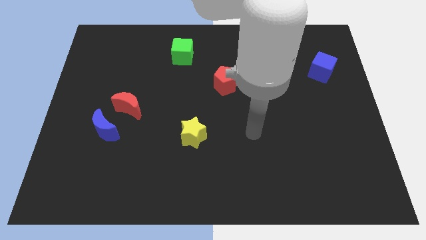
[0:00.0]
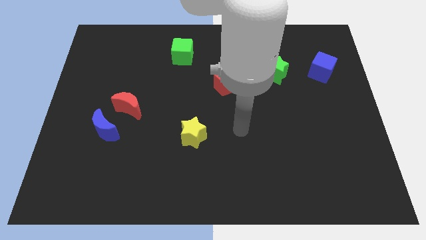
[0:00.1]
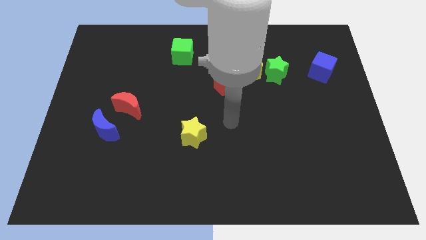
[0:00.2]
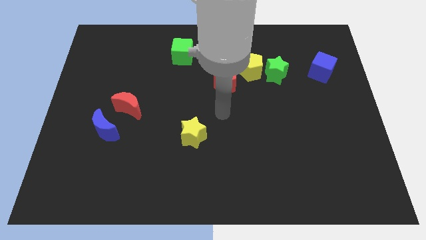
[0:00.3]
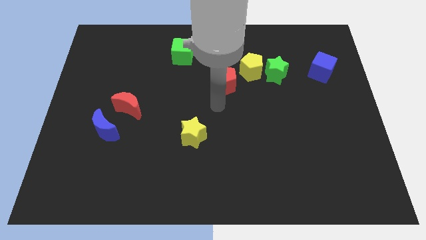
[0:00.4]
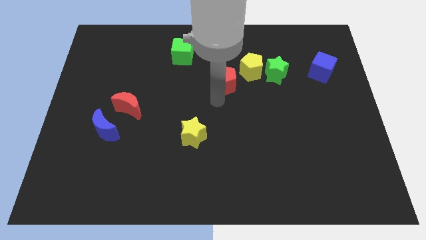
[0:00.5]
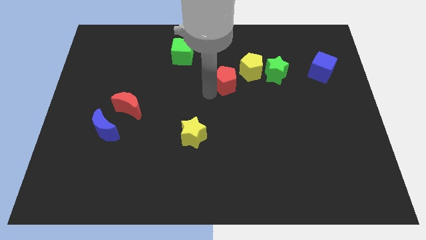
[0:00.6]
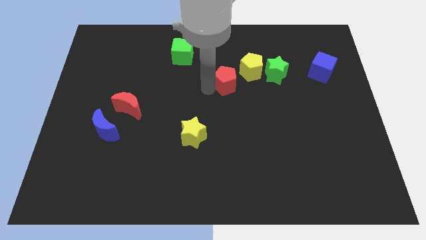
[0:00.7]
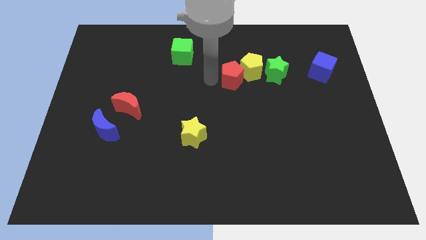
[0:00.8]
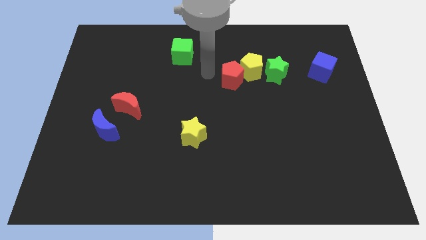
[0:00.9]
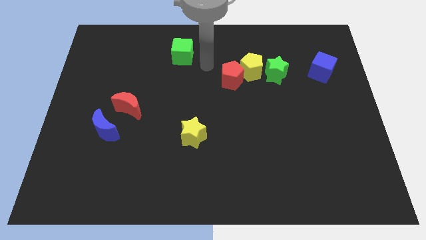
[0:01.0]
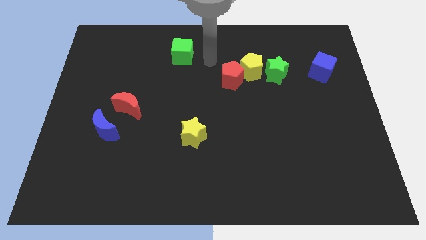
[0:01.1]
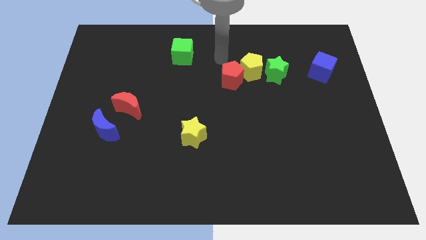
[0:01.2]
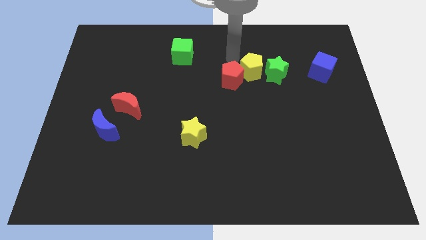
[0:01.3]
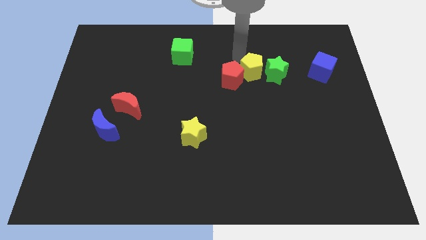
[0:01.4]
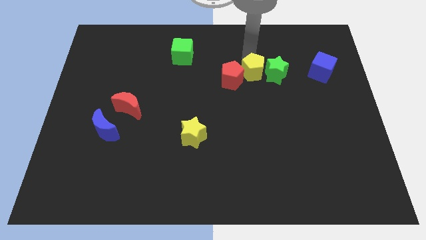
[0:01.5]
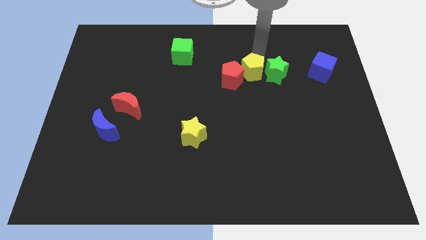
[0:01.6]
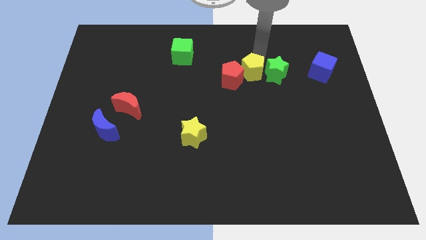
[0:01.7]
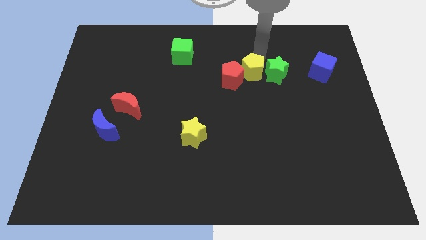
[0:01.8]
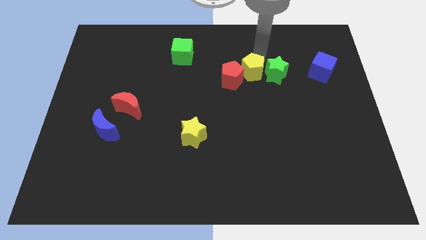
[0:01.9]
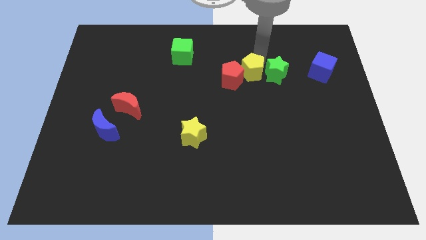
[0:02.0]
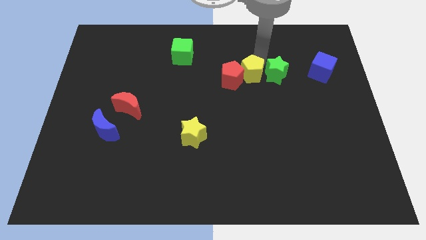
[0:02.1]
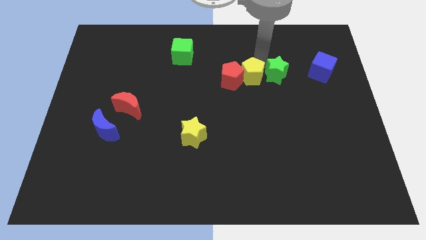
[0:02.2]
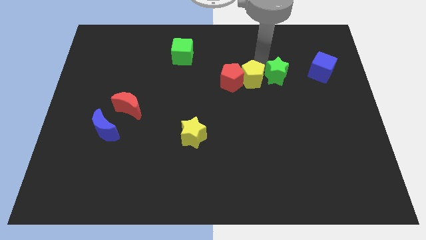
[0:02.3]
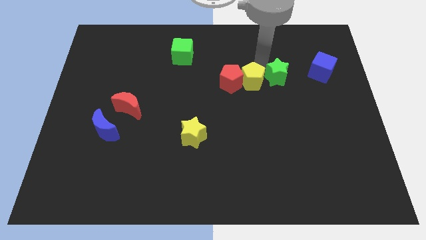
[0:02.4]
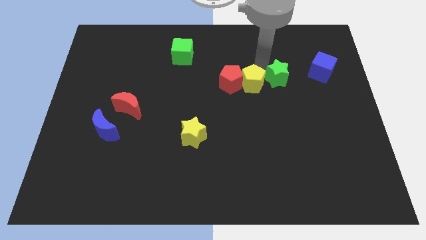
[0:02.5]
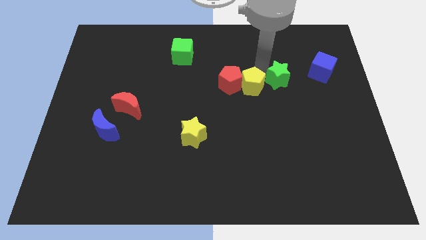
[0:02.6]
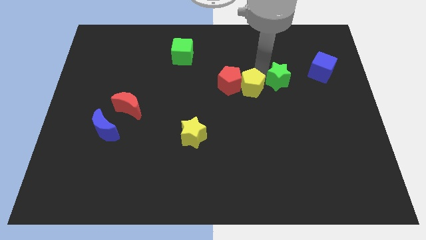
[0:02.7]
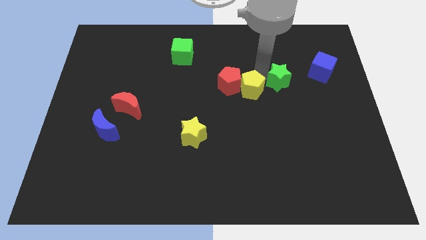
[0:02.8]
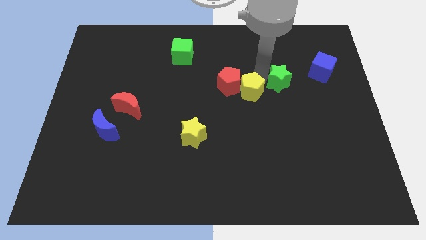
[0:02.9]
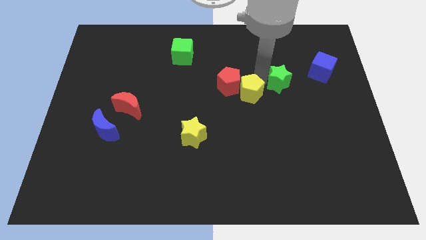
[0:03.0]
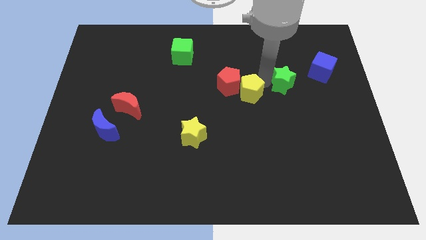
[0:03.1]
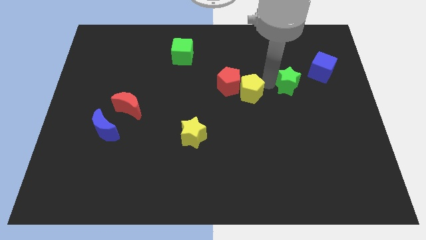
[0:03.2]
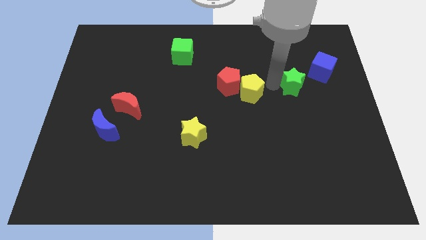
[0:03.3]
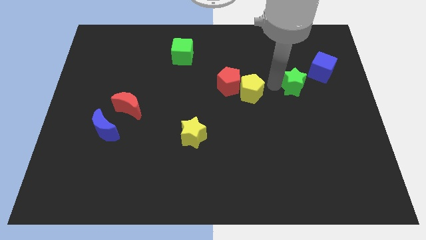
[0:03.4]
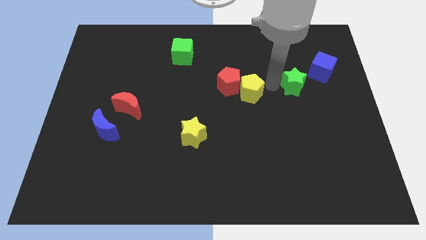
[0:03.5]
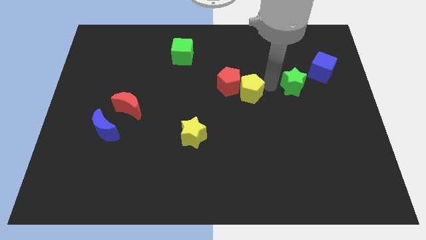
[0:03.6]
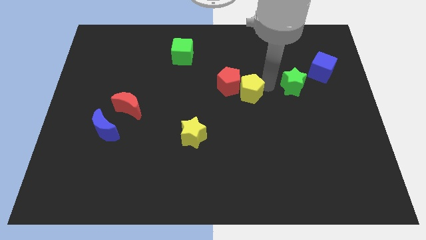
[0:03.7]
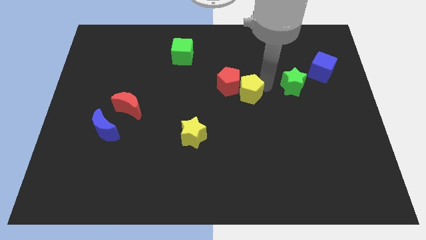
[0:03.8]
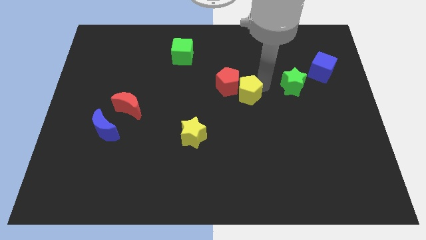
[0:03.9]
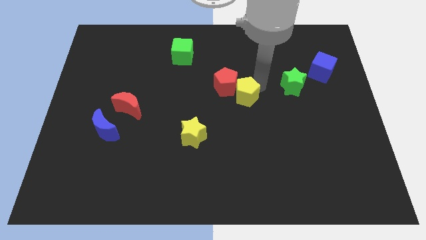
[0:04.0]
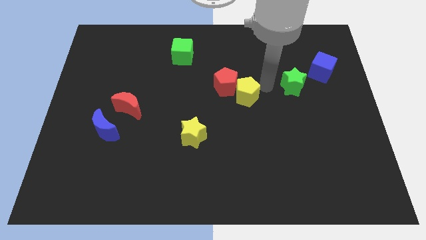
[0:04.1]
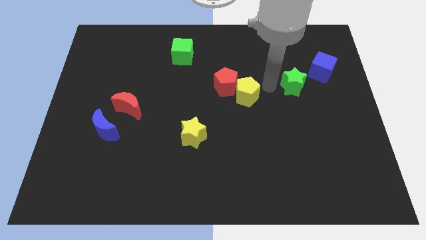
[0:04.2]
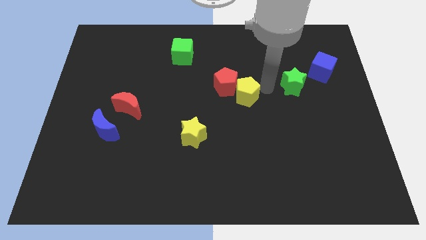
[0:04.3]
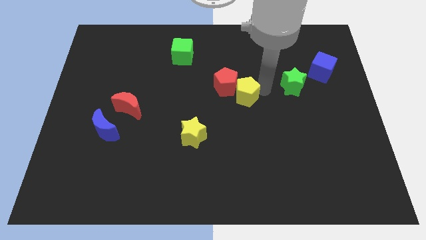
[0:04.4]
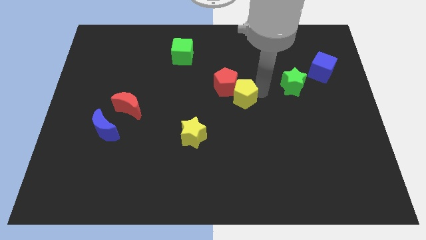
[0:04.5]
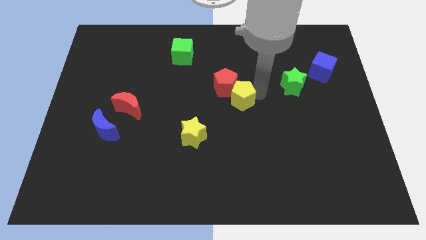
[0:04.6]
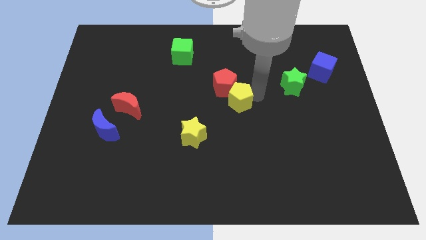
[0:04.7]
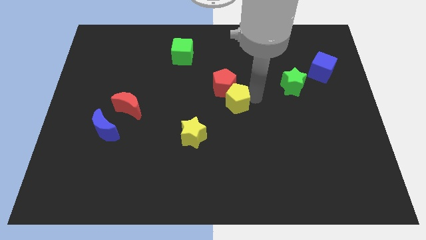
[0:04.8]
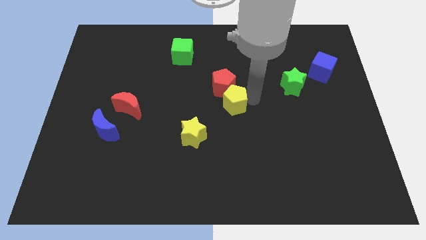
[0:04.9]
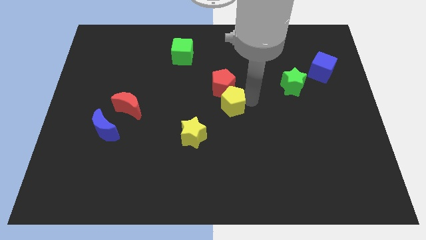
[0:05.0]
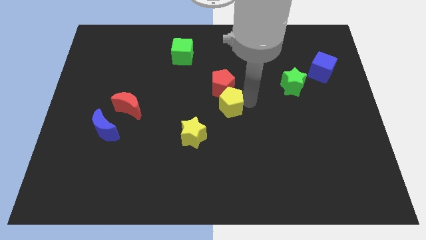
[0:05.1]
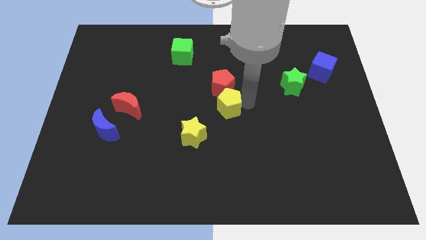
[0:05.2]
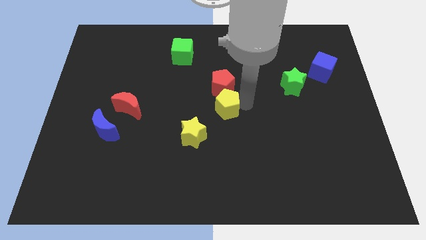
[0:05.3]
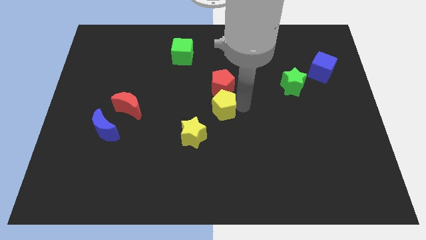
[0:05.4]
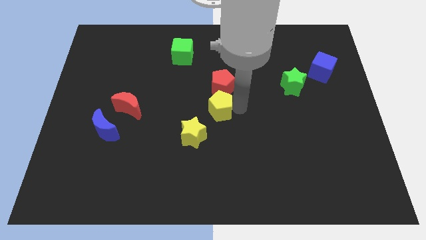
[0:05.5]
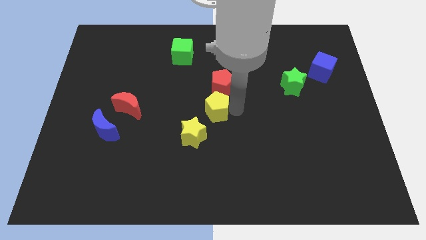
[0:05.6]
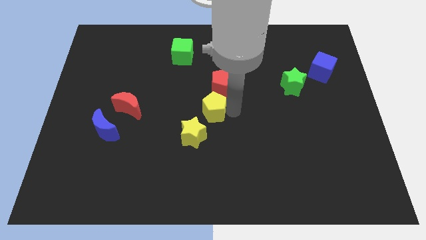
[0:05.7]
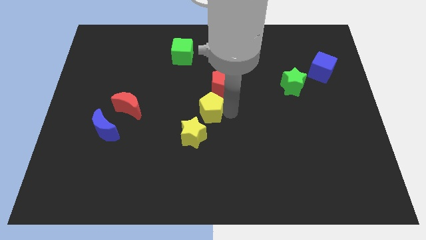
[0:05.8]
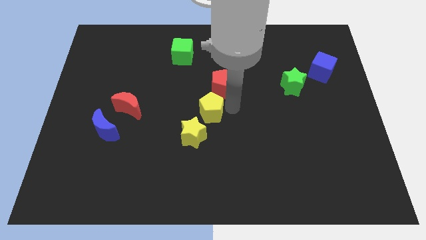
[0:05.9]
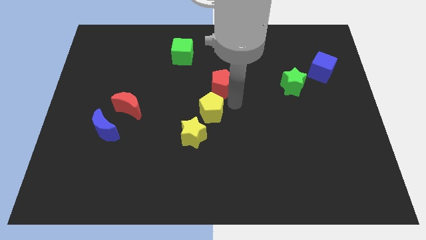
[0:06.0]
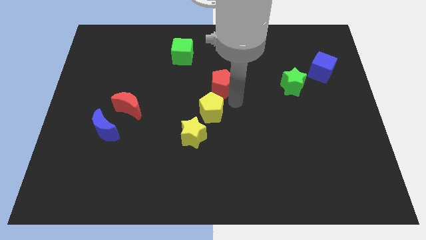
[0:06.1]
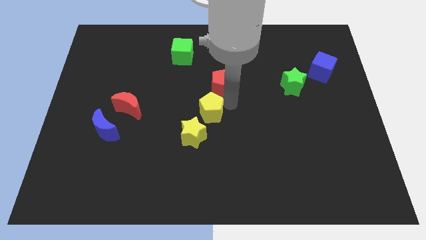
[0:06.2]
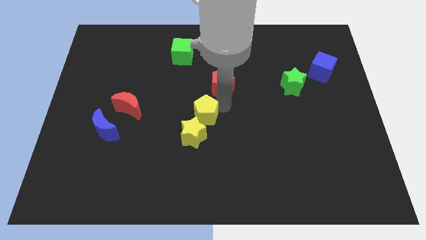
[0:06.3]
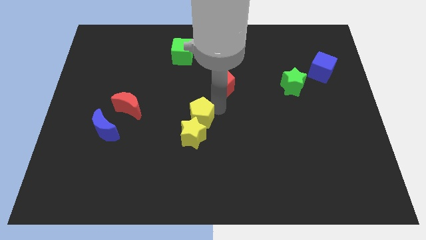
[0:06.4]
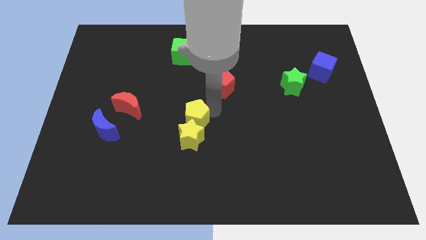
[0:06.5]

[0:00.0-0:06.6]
move the yellow pentagon downwards and left diagonally

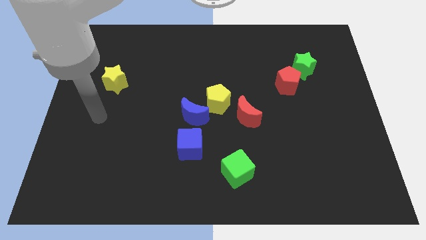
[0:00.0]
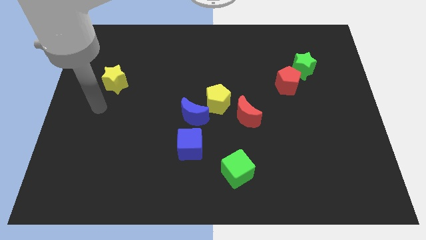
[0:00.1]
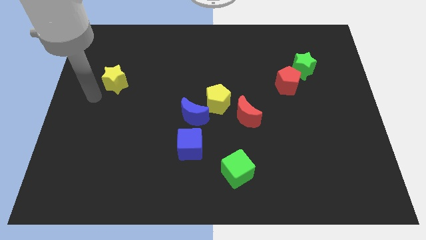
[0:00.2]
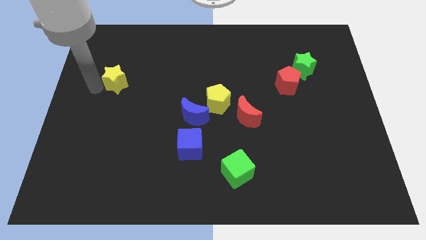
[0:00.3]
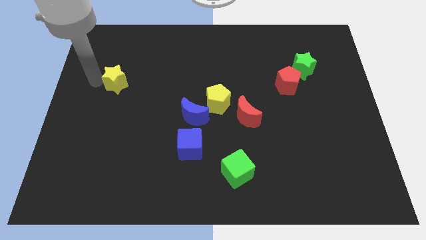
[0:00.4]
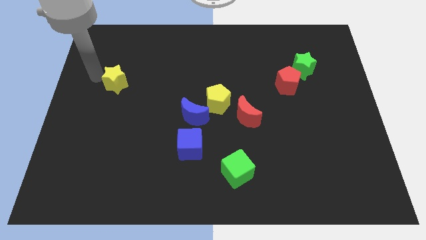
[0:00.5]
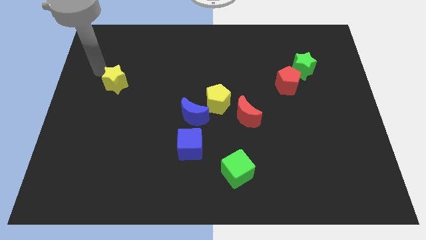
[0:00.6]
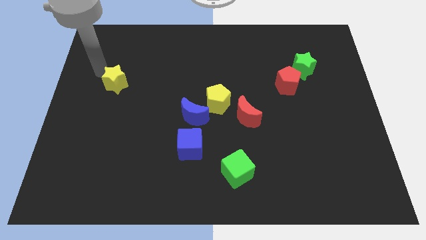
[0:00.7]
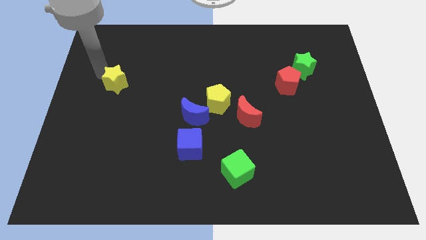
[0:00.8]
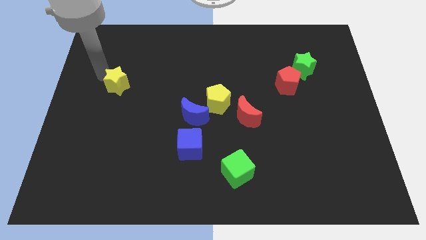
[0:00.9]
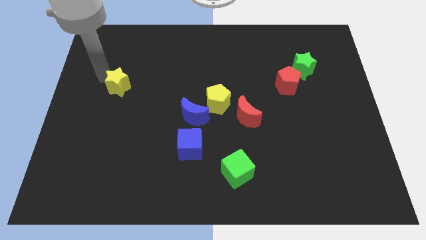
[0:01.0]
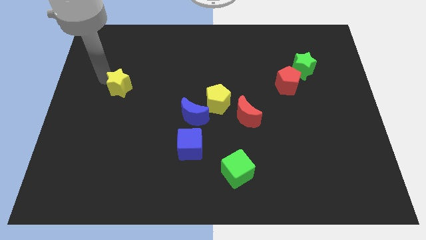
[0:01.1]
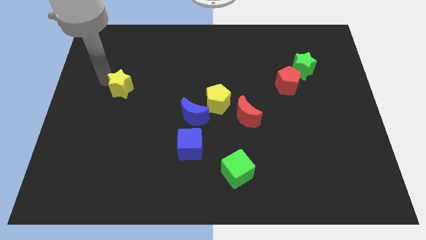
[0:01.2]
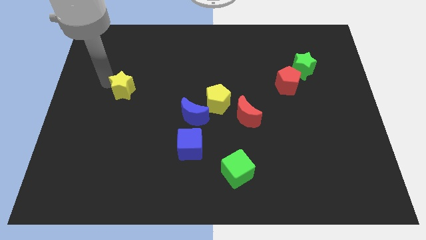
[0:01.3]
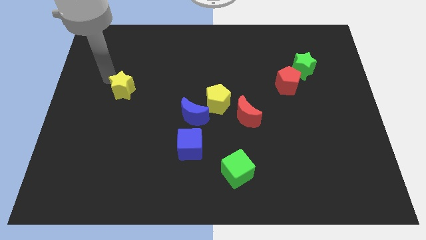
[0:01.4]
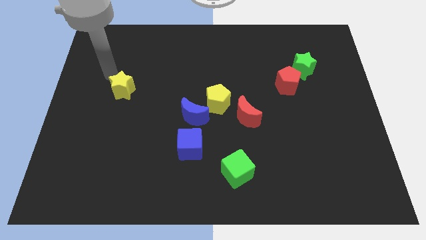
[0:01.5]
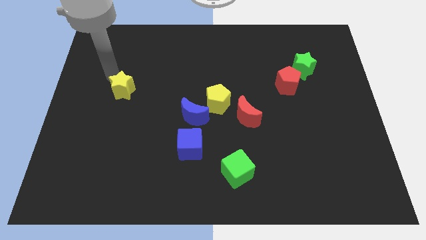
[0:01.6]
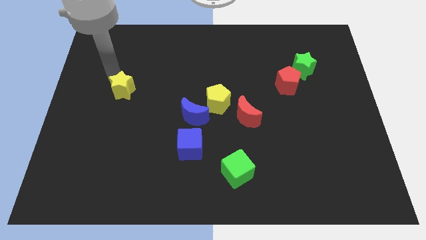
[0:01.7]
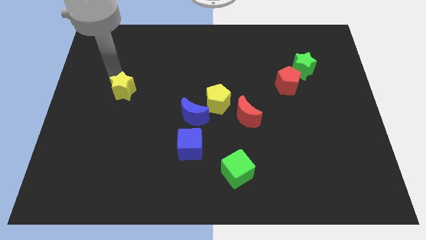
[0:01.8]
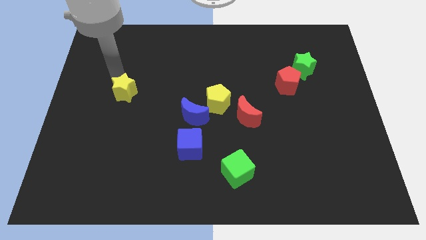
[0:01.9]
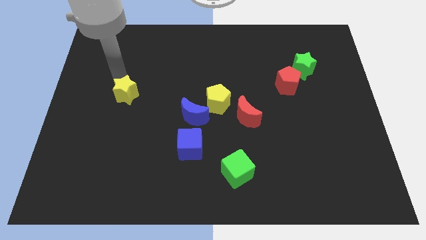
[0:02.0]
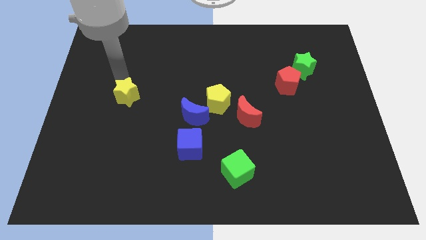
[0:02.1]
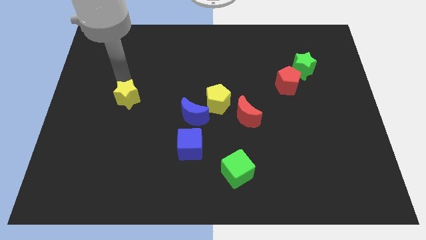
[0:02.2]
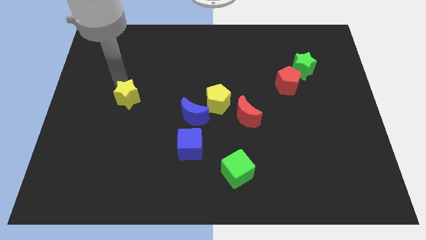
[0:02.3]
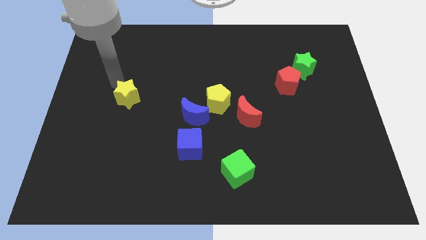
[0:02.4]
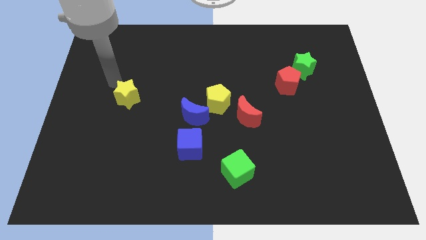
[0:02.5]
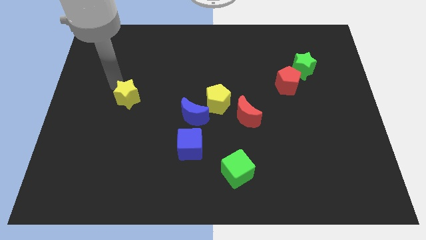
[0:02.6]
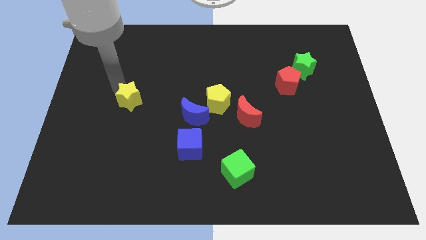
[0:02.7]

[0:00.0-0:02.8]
slide the yellow star somewhat downwards and right
